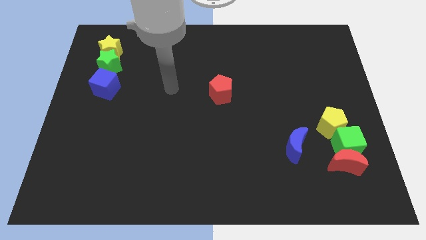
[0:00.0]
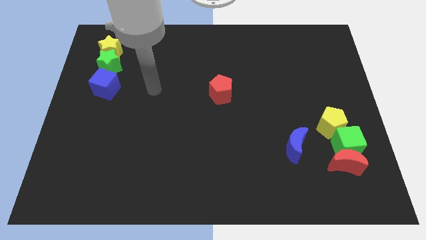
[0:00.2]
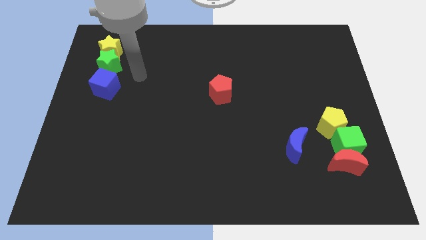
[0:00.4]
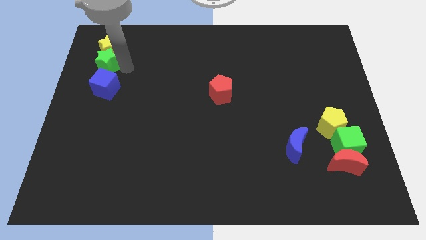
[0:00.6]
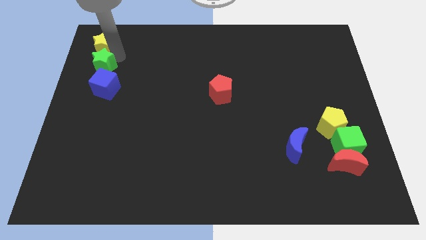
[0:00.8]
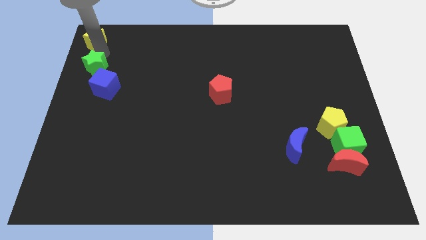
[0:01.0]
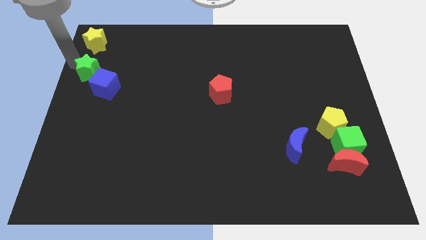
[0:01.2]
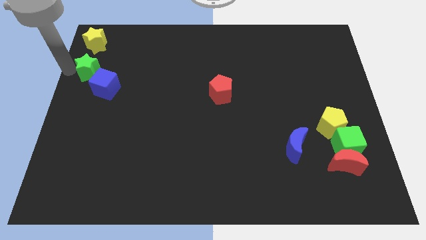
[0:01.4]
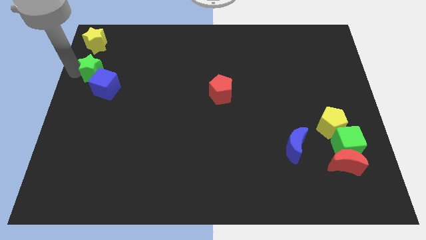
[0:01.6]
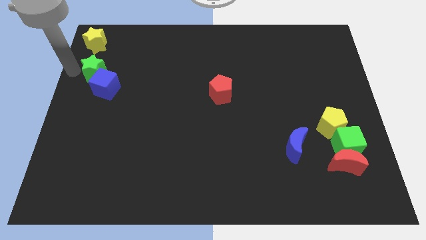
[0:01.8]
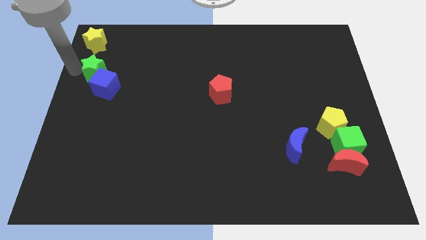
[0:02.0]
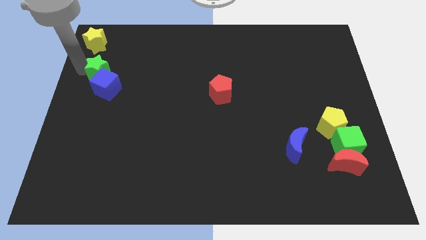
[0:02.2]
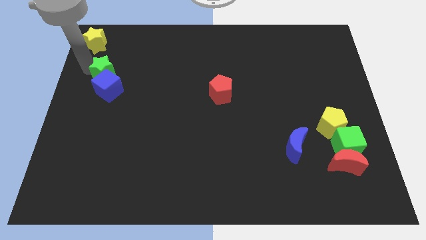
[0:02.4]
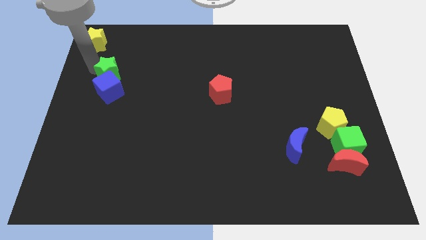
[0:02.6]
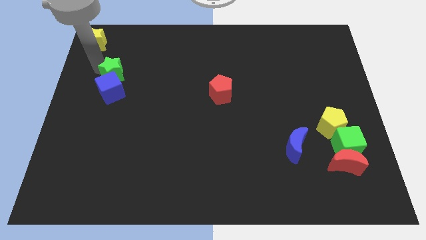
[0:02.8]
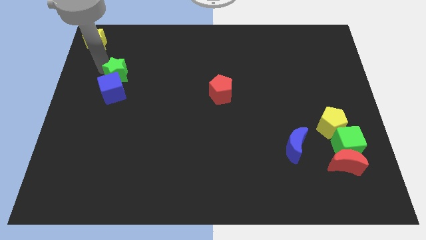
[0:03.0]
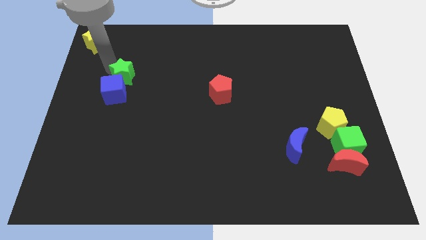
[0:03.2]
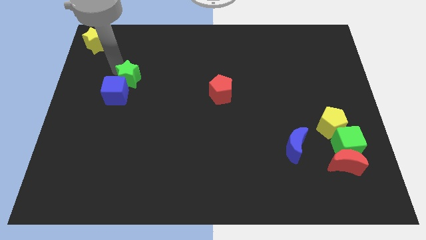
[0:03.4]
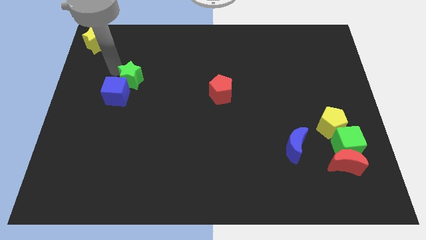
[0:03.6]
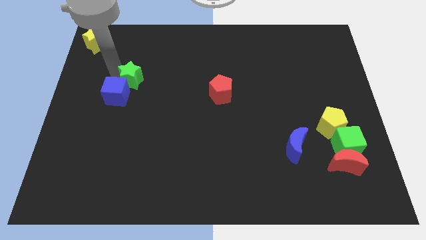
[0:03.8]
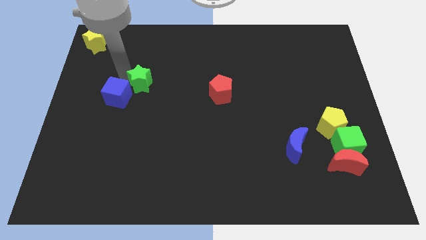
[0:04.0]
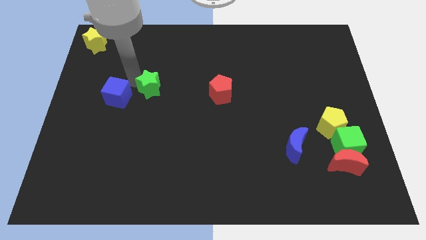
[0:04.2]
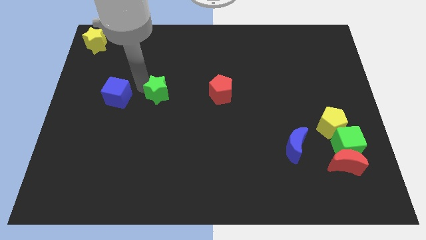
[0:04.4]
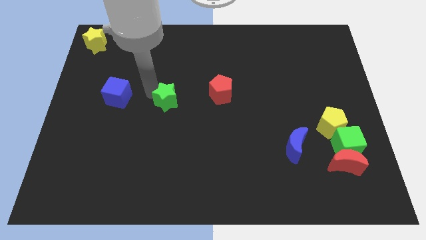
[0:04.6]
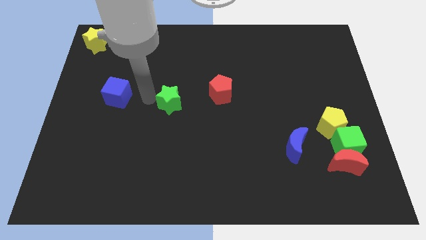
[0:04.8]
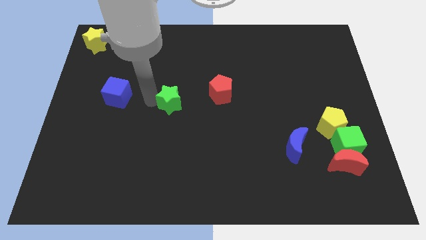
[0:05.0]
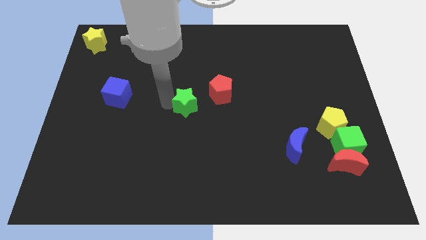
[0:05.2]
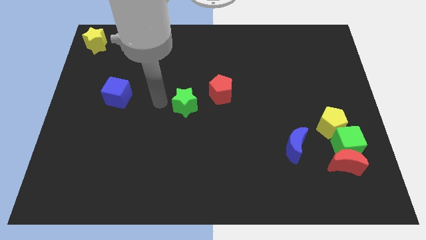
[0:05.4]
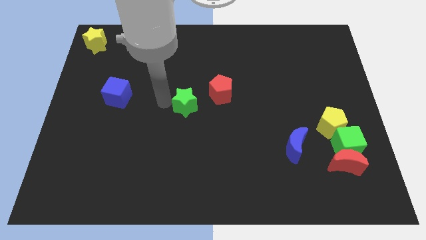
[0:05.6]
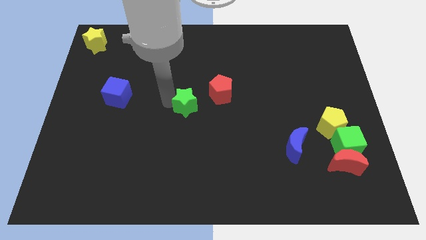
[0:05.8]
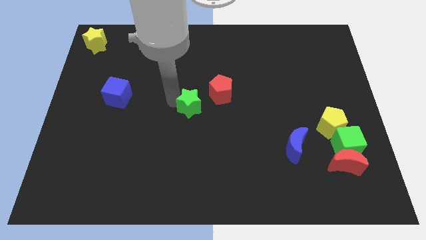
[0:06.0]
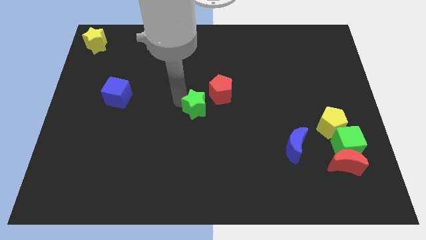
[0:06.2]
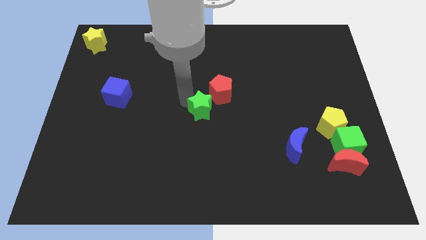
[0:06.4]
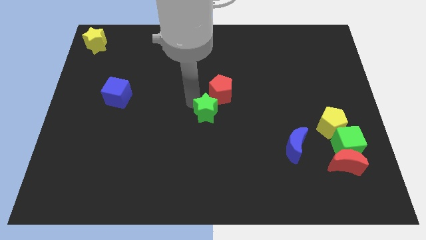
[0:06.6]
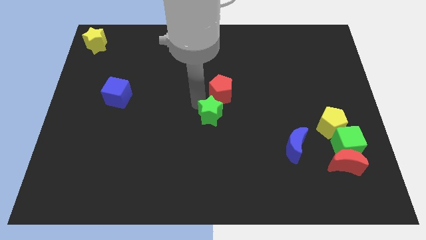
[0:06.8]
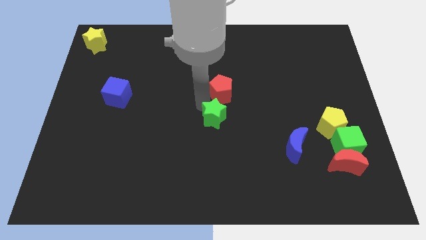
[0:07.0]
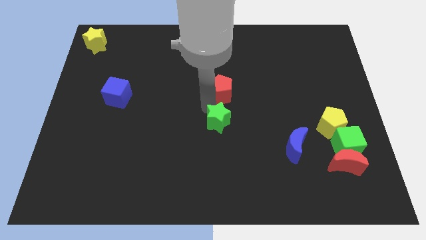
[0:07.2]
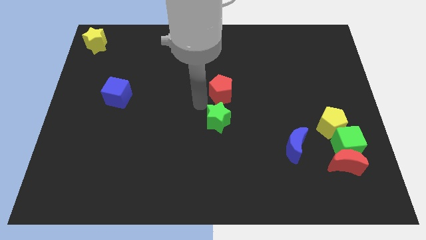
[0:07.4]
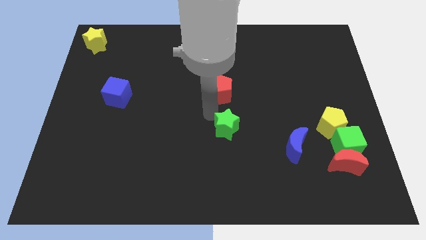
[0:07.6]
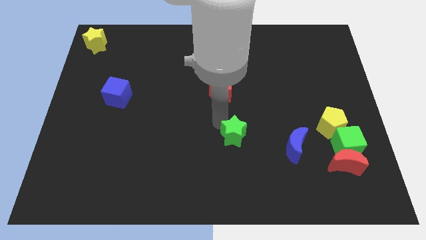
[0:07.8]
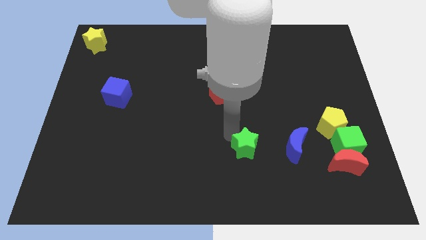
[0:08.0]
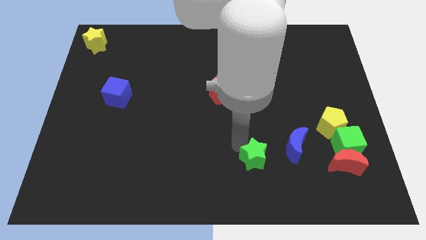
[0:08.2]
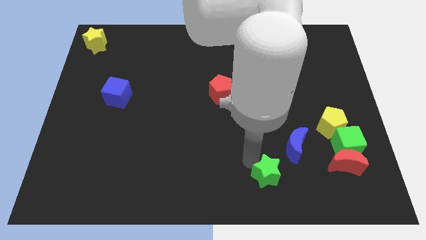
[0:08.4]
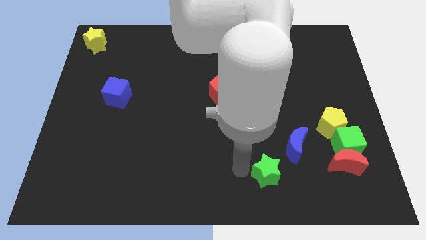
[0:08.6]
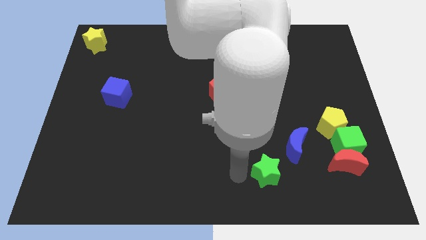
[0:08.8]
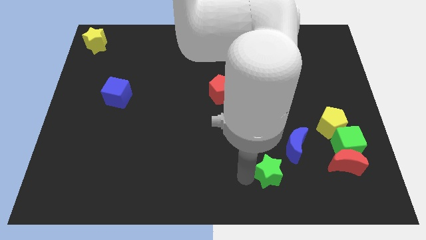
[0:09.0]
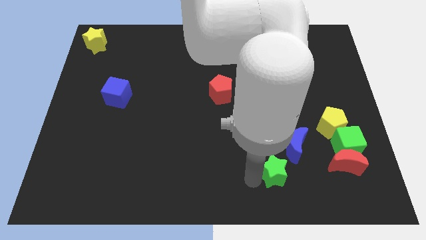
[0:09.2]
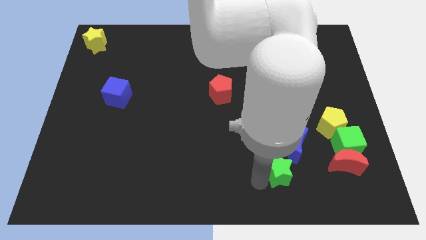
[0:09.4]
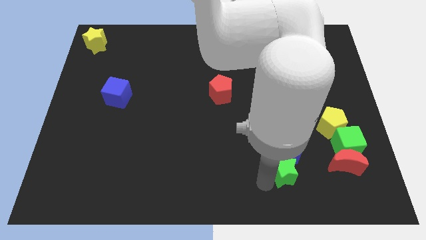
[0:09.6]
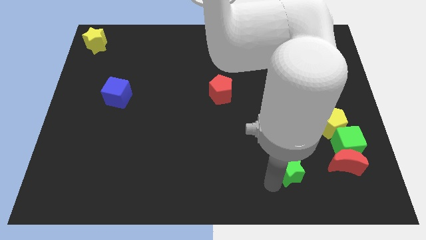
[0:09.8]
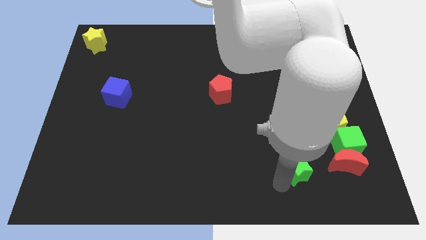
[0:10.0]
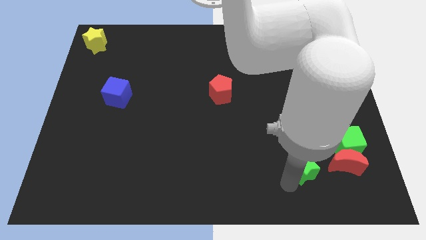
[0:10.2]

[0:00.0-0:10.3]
move the green star diagonally down and to the left of the green cube
